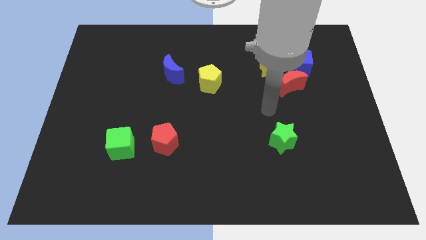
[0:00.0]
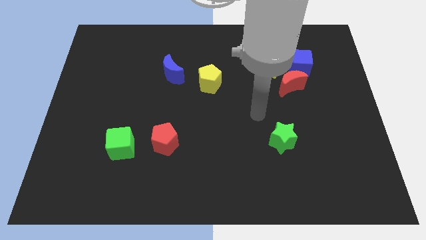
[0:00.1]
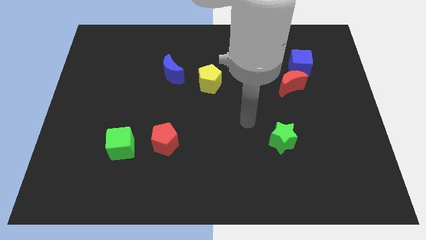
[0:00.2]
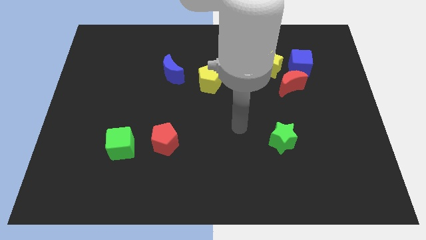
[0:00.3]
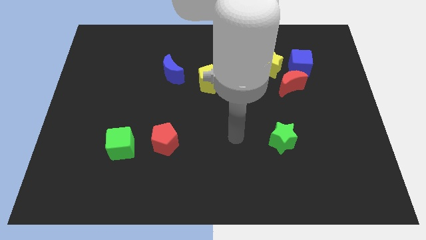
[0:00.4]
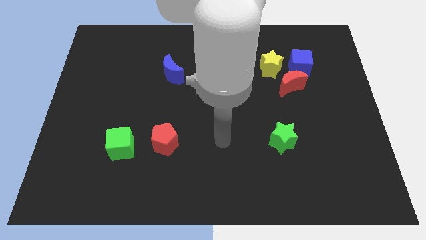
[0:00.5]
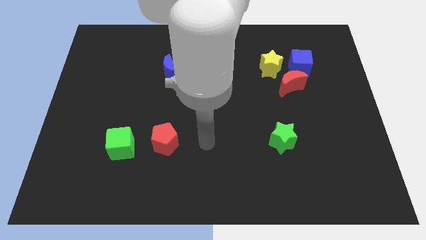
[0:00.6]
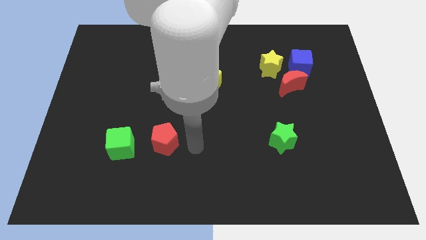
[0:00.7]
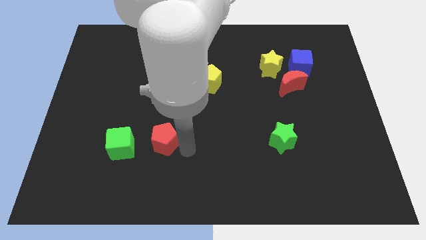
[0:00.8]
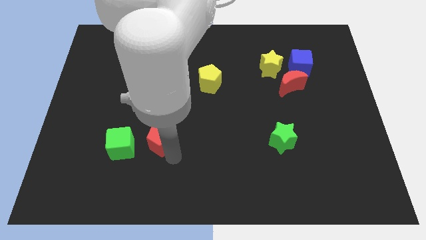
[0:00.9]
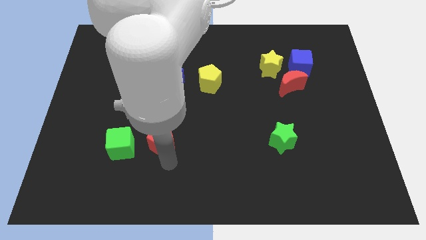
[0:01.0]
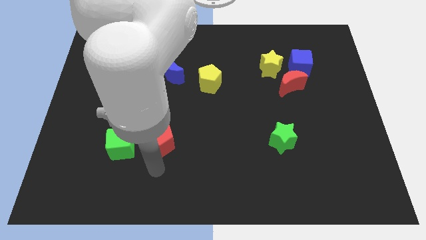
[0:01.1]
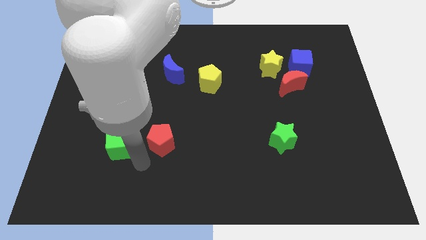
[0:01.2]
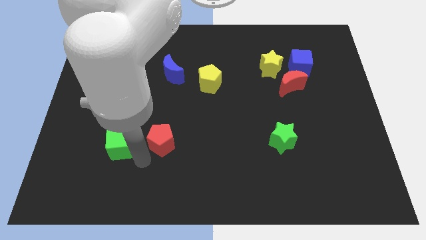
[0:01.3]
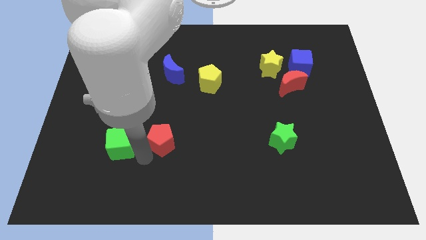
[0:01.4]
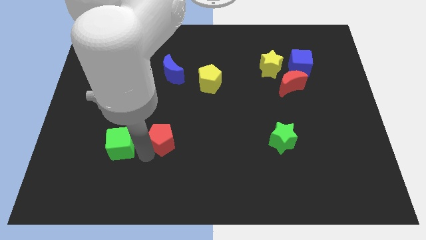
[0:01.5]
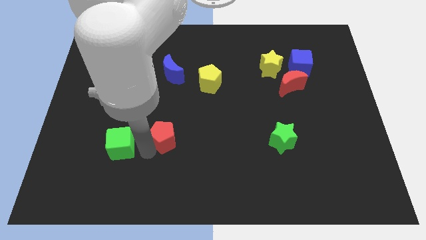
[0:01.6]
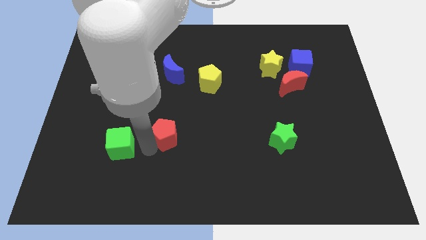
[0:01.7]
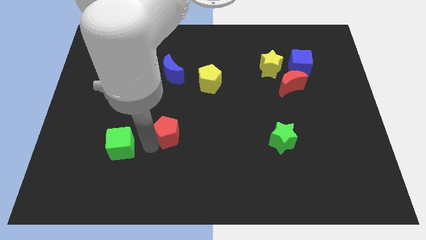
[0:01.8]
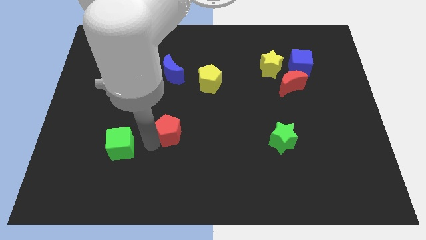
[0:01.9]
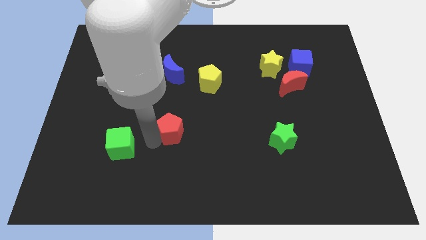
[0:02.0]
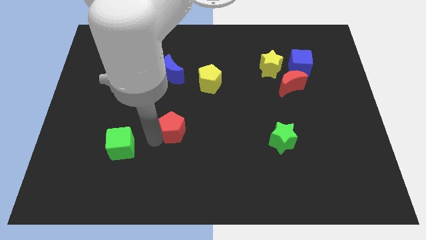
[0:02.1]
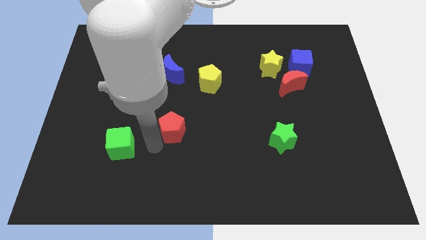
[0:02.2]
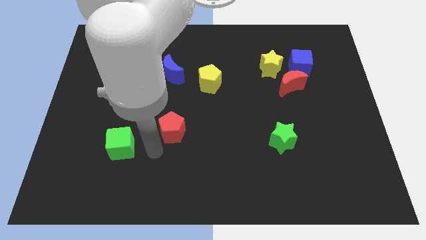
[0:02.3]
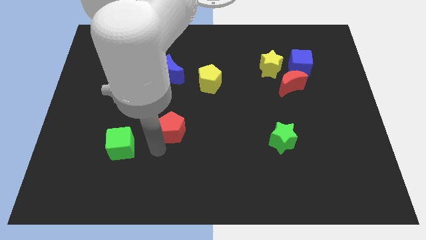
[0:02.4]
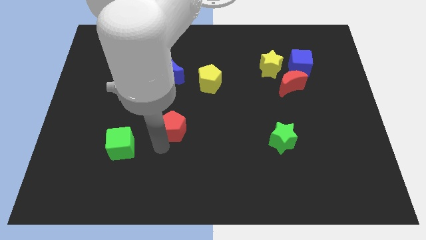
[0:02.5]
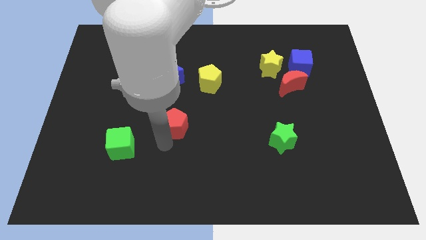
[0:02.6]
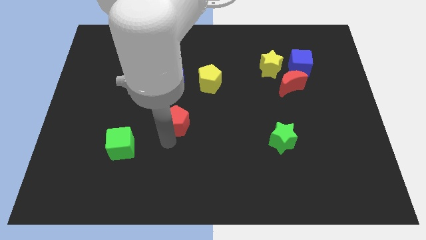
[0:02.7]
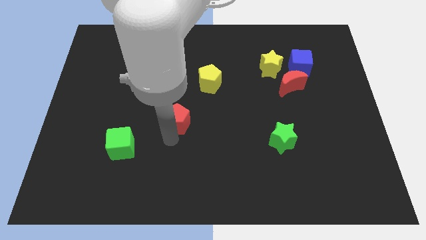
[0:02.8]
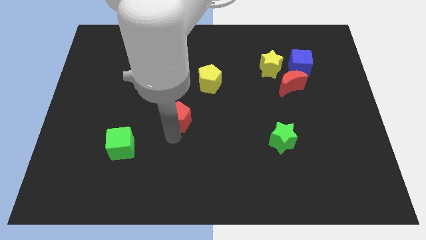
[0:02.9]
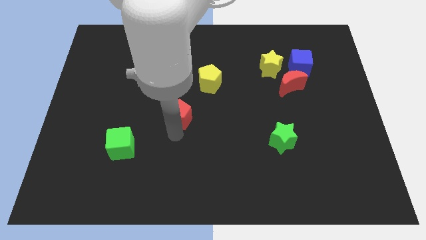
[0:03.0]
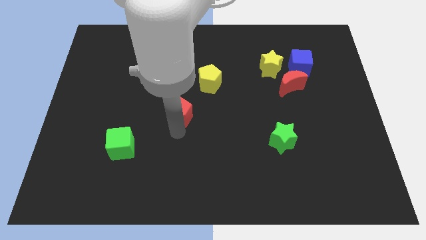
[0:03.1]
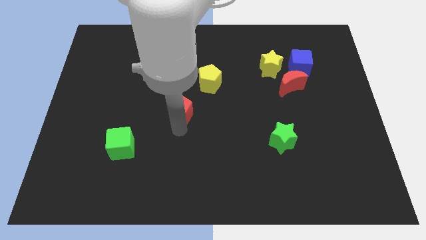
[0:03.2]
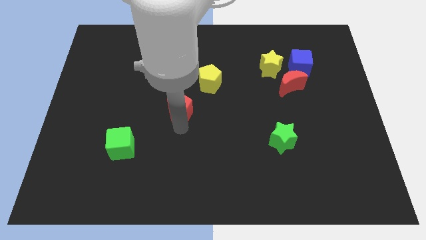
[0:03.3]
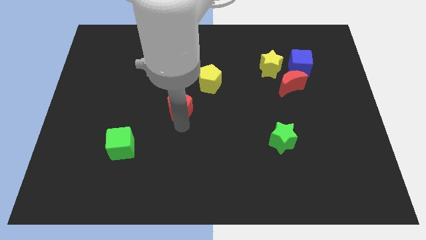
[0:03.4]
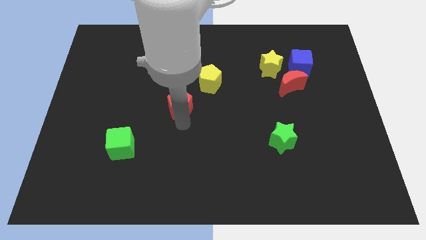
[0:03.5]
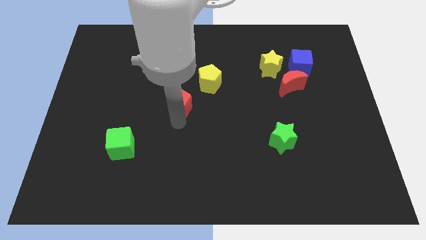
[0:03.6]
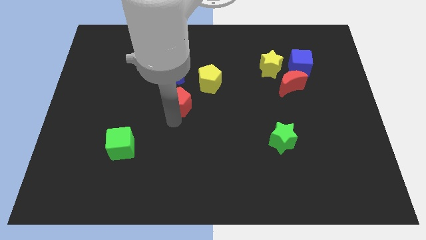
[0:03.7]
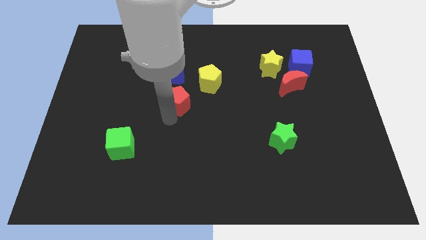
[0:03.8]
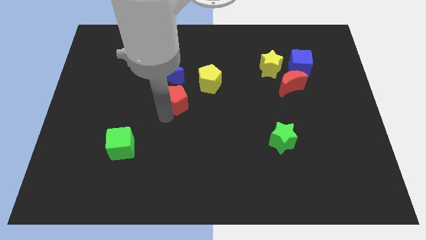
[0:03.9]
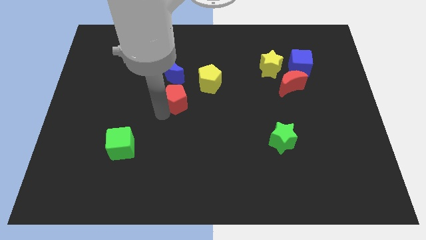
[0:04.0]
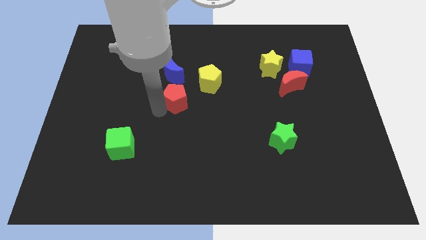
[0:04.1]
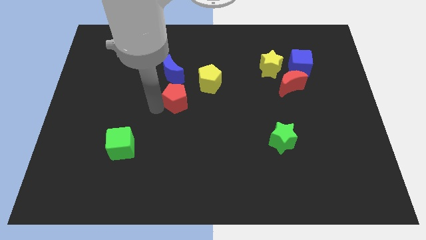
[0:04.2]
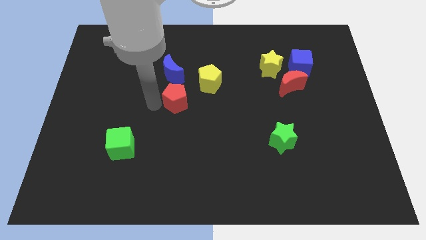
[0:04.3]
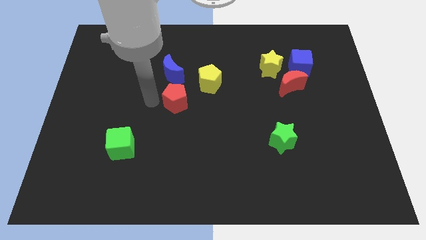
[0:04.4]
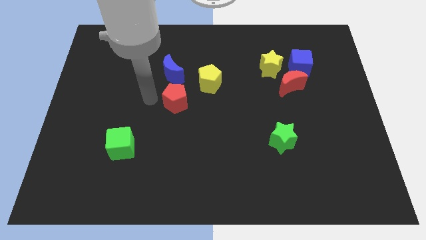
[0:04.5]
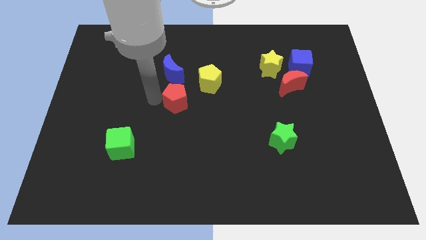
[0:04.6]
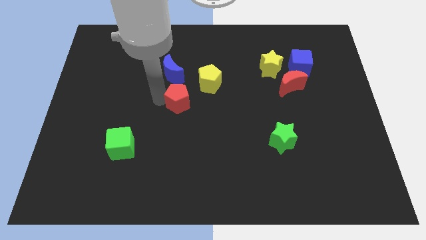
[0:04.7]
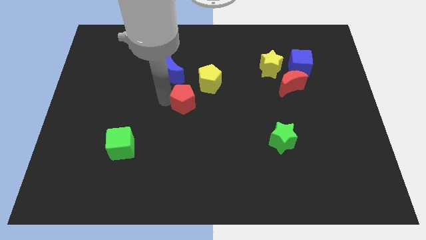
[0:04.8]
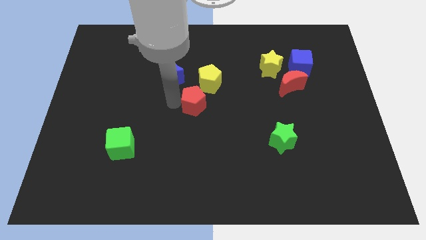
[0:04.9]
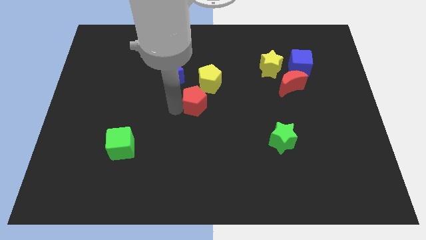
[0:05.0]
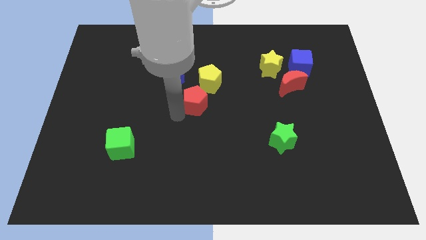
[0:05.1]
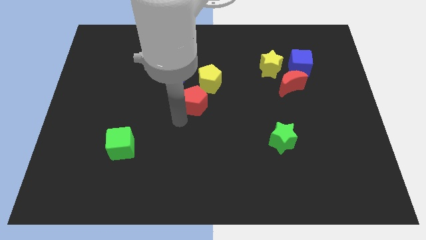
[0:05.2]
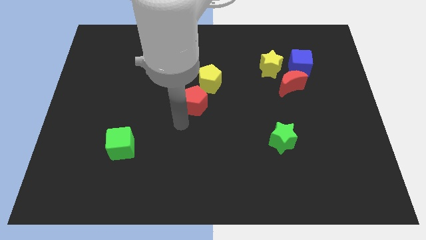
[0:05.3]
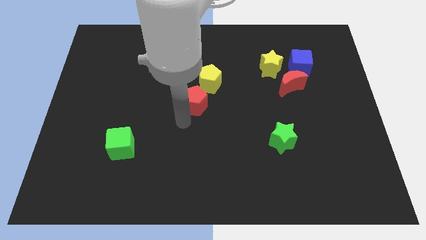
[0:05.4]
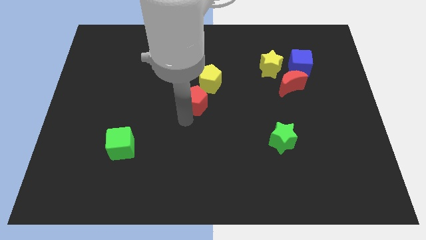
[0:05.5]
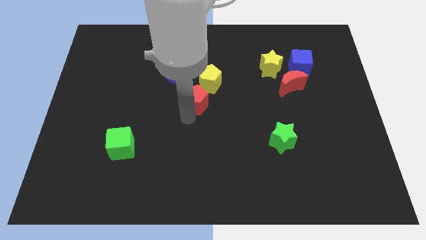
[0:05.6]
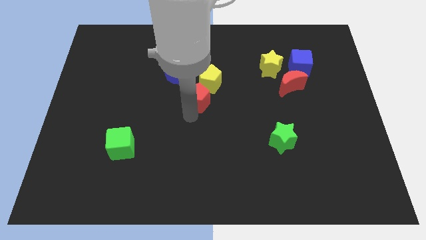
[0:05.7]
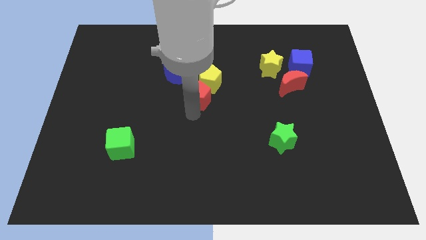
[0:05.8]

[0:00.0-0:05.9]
slide the red pentagon towards the yellow pentagon
